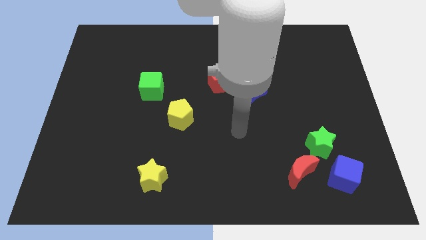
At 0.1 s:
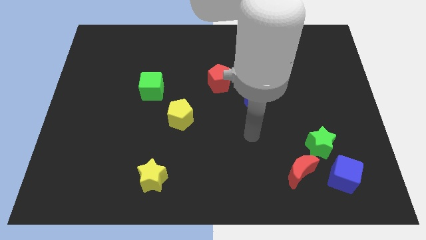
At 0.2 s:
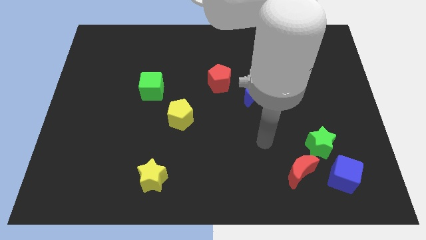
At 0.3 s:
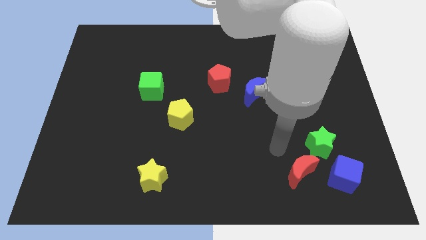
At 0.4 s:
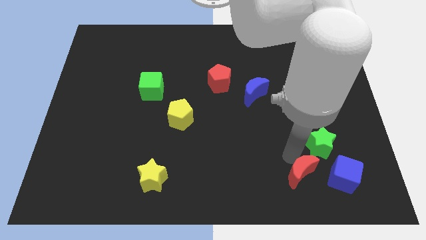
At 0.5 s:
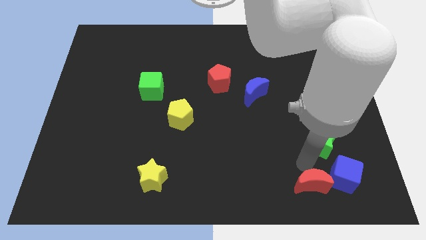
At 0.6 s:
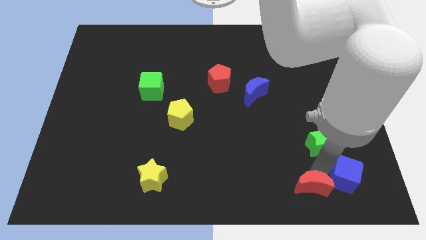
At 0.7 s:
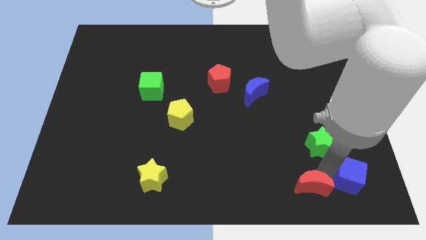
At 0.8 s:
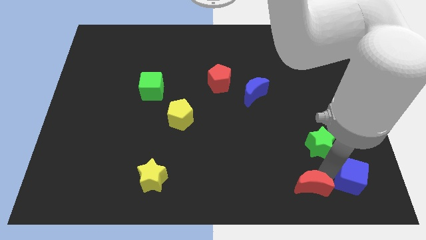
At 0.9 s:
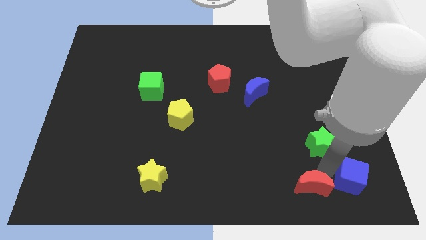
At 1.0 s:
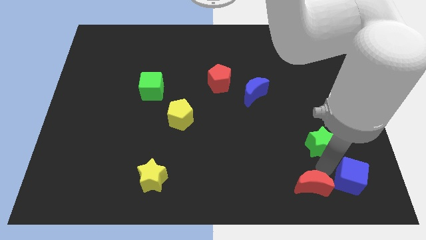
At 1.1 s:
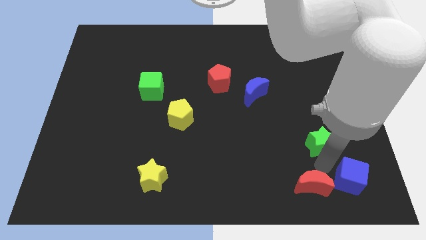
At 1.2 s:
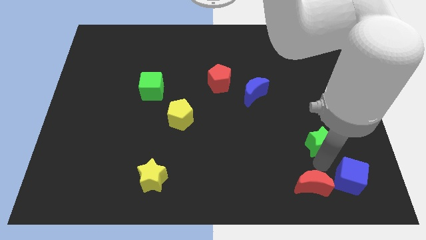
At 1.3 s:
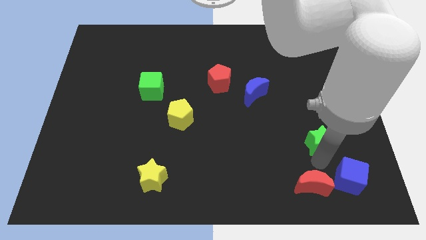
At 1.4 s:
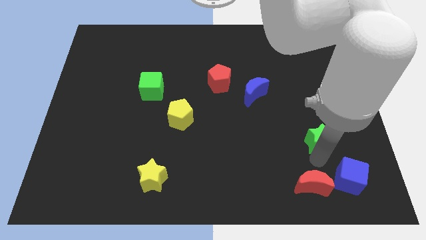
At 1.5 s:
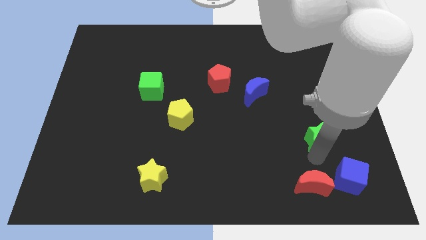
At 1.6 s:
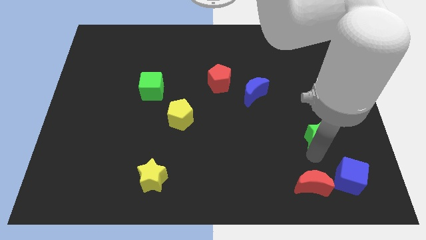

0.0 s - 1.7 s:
separate the green star from the red moon and blue cube

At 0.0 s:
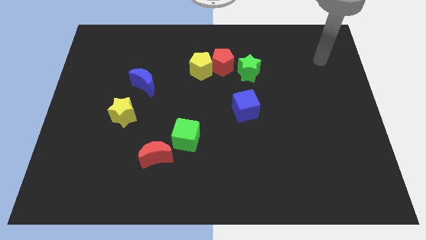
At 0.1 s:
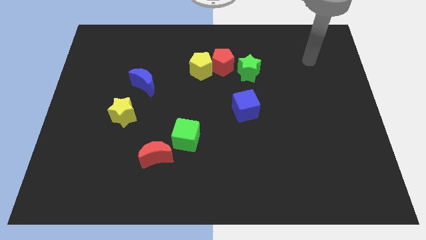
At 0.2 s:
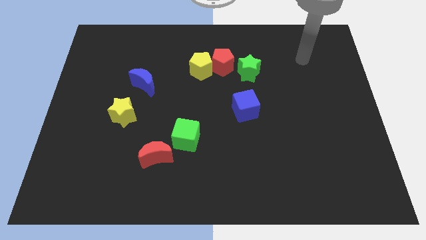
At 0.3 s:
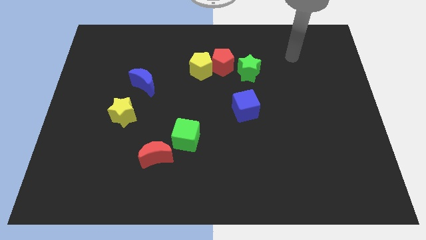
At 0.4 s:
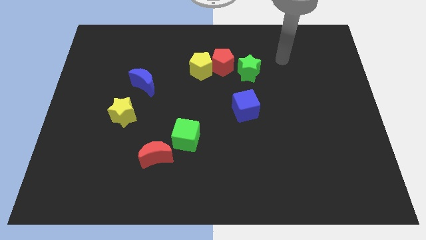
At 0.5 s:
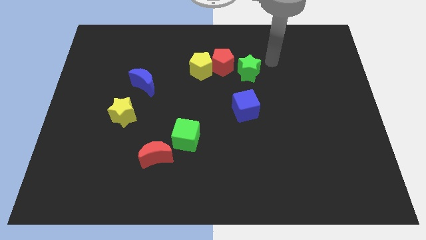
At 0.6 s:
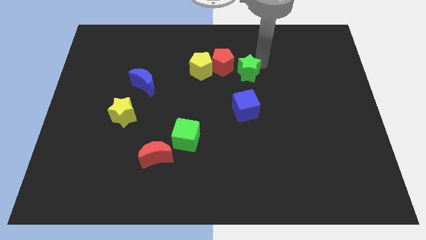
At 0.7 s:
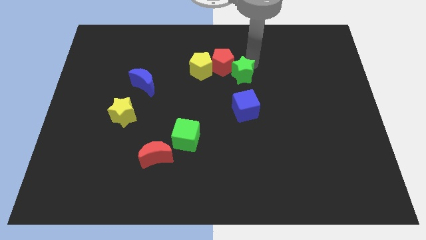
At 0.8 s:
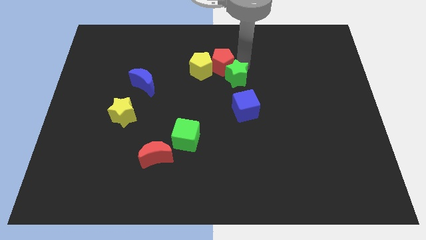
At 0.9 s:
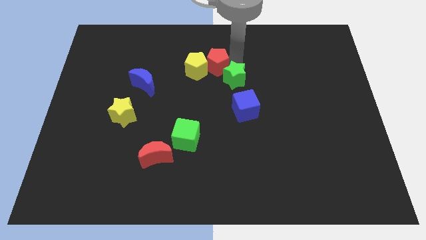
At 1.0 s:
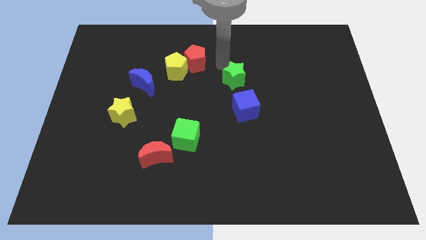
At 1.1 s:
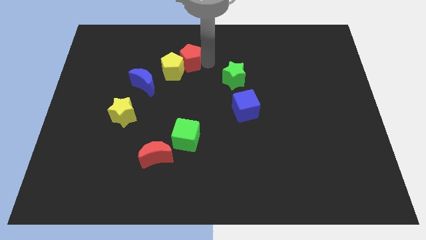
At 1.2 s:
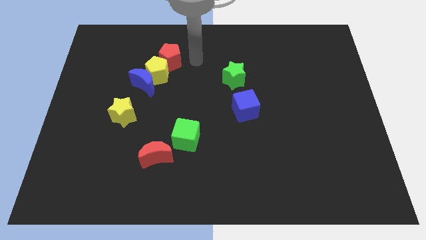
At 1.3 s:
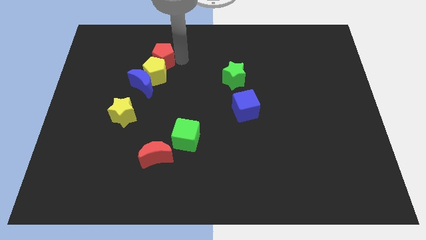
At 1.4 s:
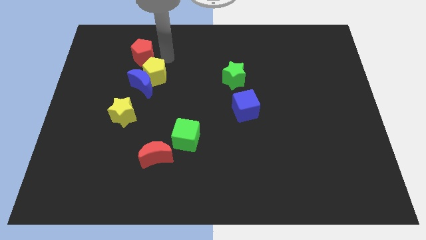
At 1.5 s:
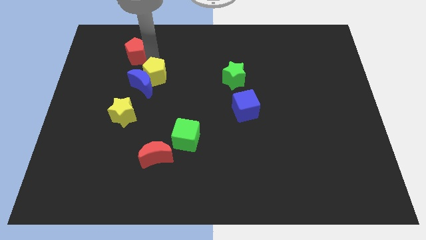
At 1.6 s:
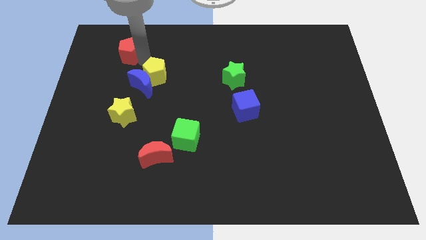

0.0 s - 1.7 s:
pull the yellow pentagon apart from the red pentagon

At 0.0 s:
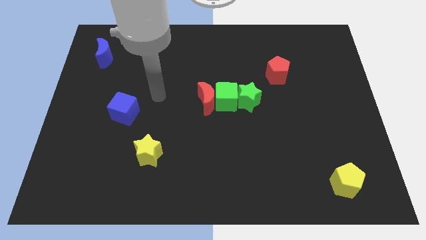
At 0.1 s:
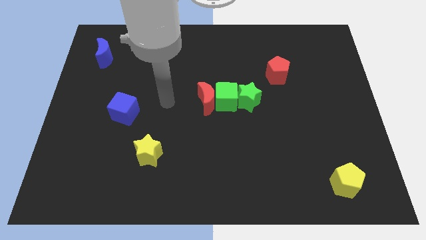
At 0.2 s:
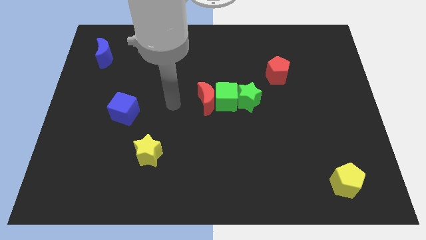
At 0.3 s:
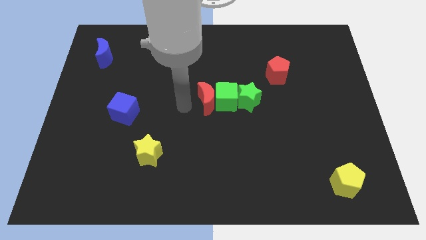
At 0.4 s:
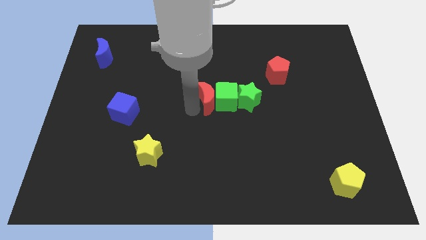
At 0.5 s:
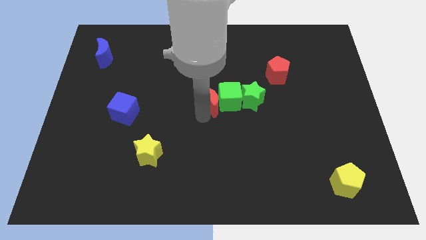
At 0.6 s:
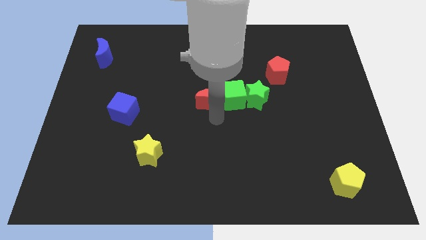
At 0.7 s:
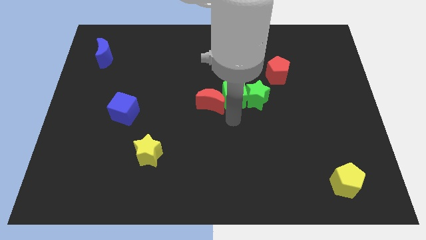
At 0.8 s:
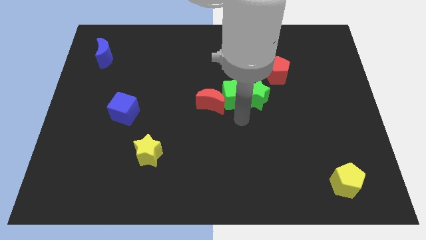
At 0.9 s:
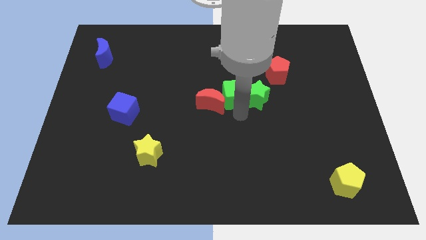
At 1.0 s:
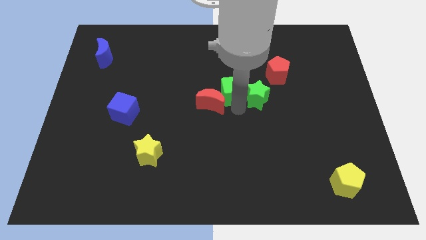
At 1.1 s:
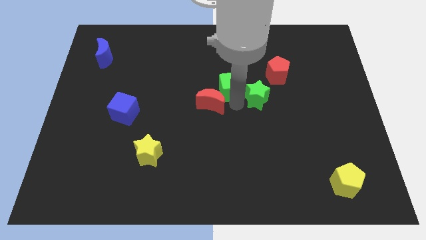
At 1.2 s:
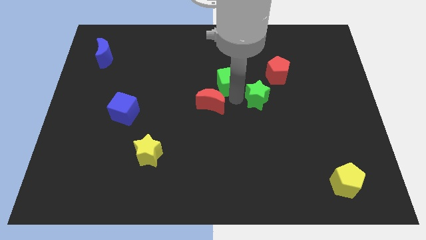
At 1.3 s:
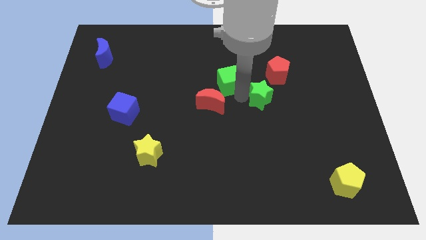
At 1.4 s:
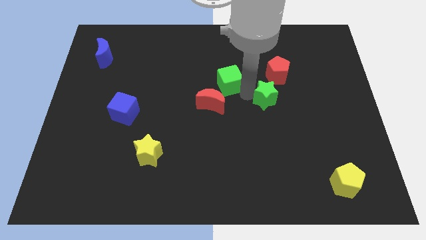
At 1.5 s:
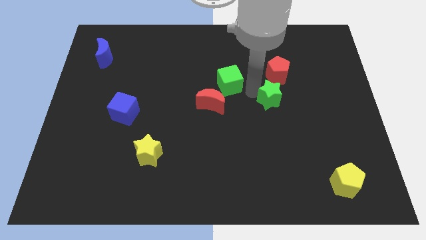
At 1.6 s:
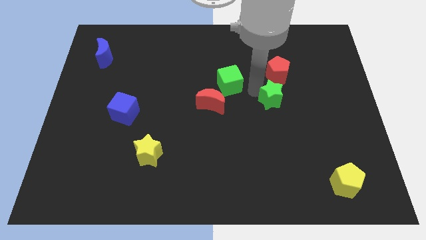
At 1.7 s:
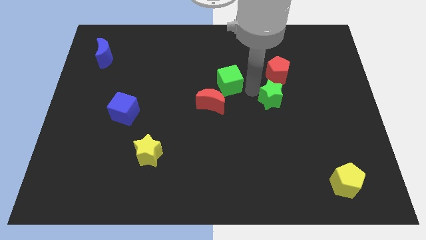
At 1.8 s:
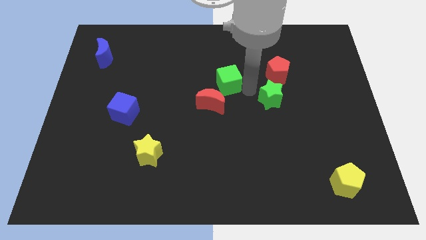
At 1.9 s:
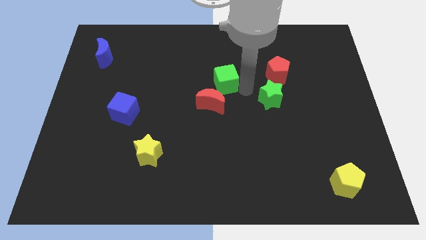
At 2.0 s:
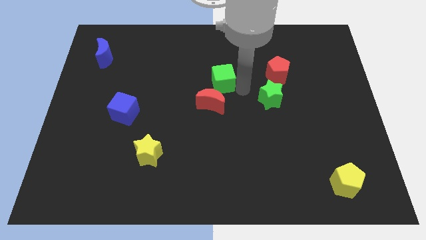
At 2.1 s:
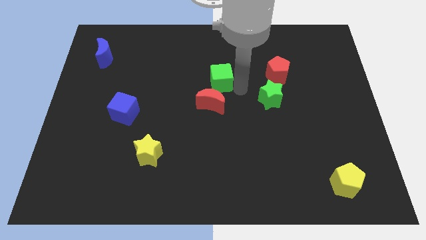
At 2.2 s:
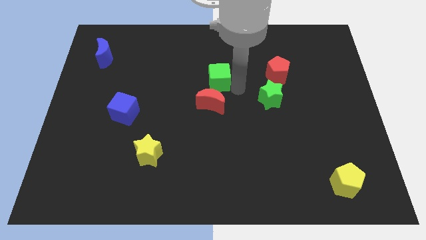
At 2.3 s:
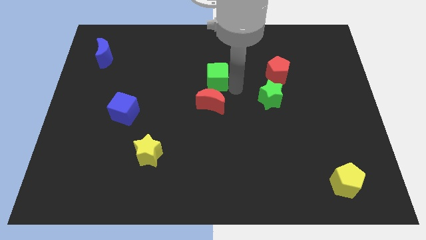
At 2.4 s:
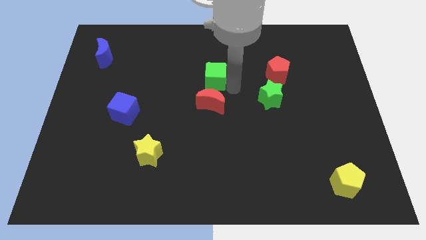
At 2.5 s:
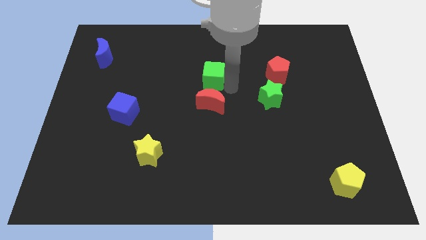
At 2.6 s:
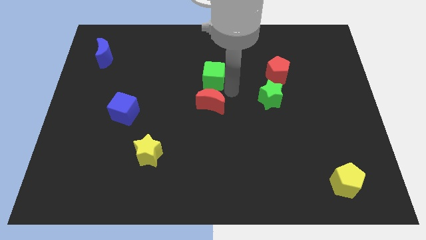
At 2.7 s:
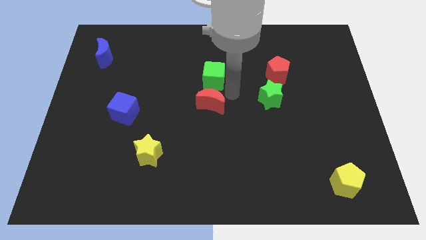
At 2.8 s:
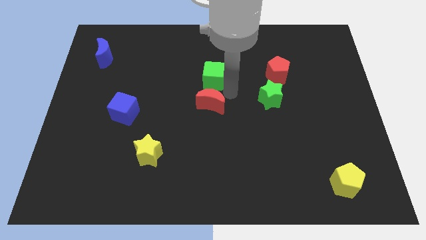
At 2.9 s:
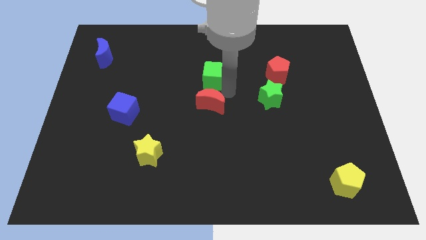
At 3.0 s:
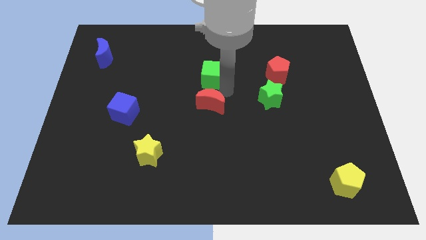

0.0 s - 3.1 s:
move the green cube away from the red moon and green star

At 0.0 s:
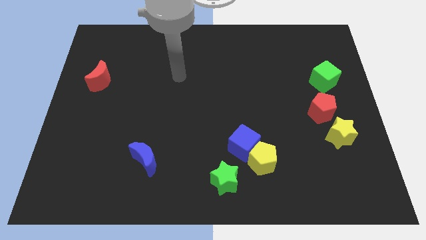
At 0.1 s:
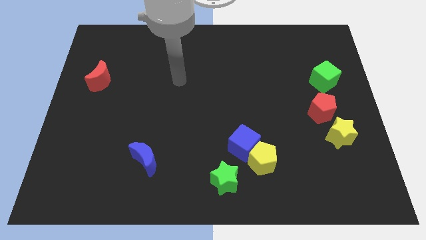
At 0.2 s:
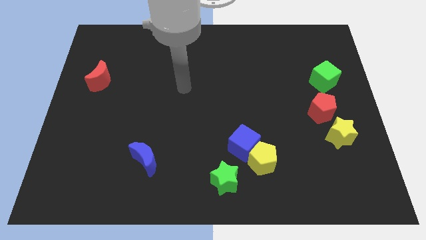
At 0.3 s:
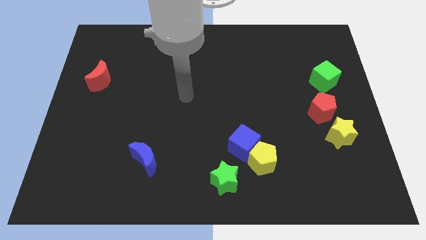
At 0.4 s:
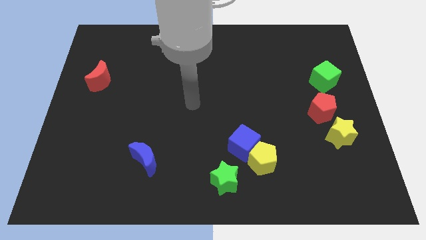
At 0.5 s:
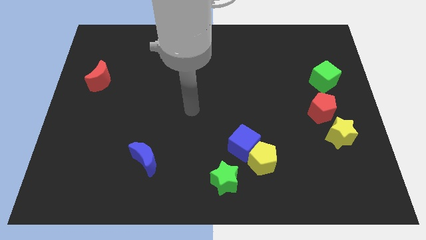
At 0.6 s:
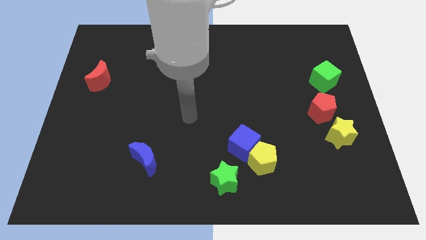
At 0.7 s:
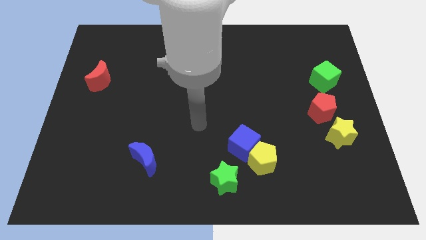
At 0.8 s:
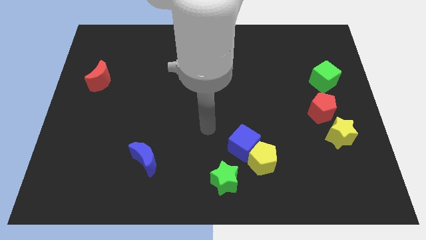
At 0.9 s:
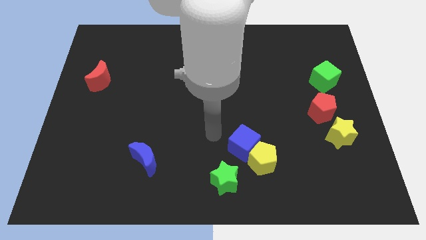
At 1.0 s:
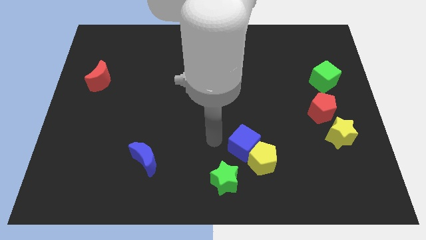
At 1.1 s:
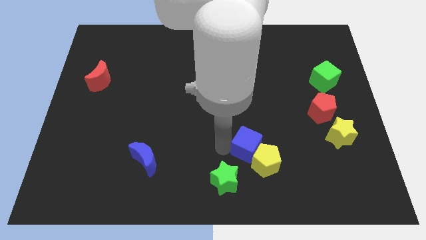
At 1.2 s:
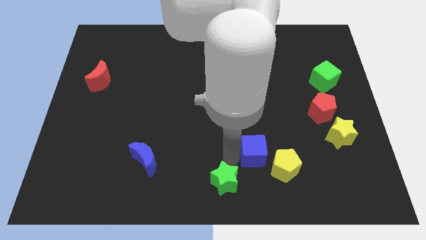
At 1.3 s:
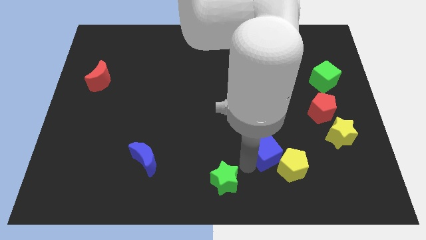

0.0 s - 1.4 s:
pull the yellow pentagon apart from the blue cube and green star

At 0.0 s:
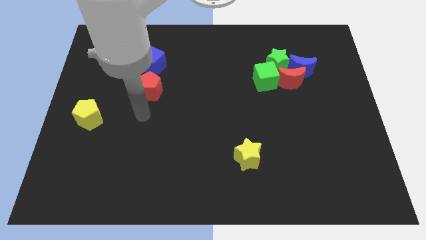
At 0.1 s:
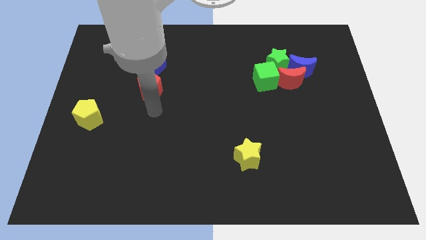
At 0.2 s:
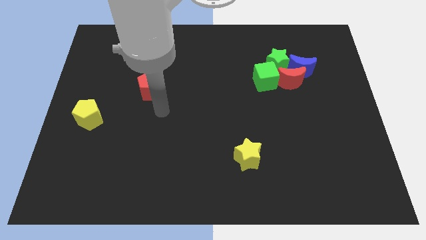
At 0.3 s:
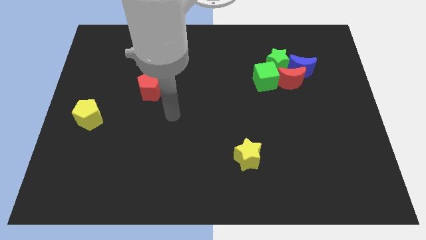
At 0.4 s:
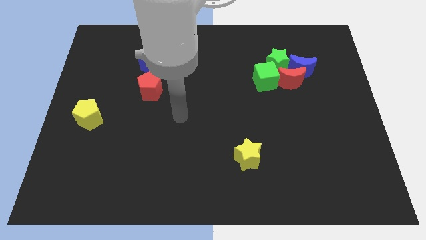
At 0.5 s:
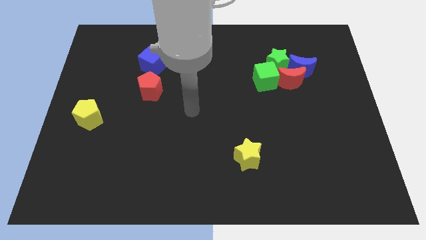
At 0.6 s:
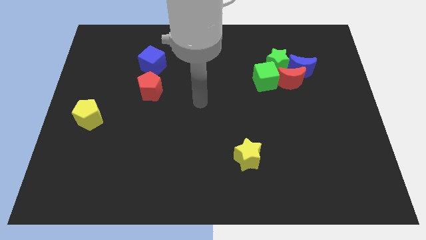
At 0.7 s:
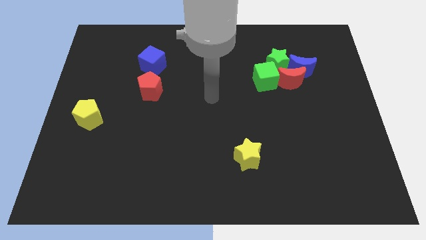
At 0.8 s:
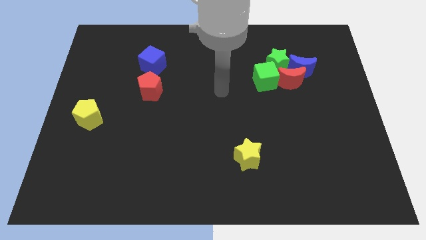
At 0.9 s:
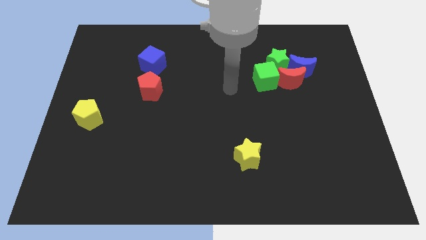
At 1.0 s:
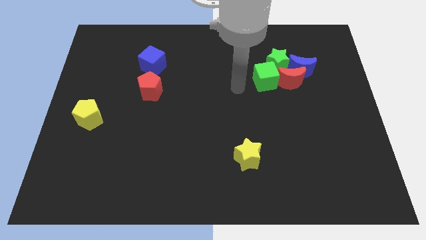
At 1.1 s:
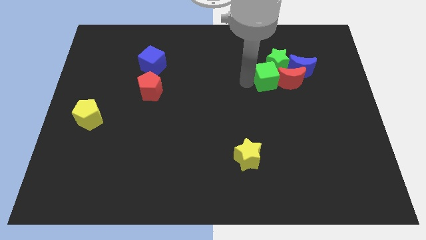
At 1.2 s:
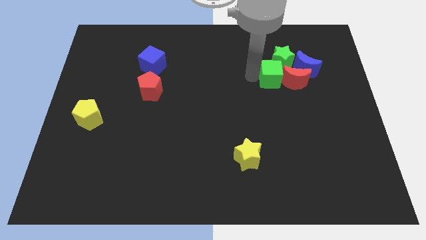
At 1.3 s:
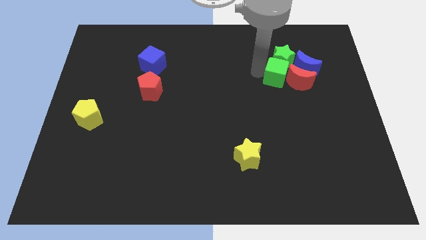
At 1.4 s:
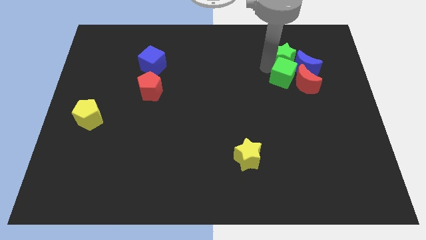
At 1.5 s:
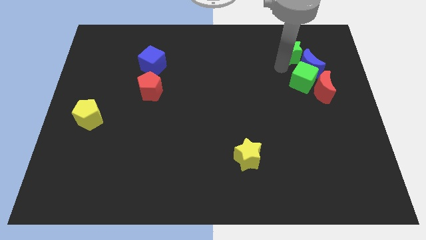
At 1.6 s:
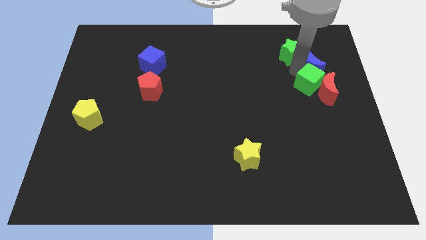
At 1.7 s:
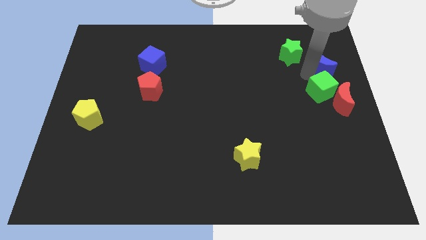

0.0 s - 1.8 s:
move the red moon away from the blue moon, green cube, and green star
